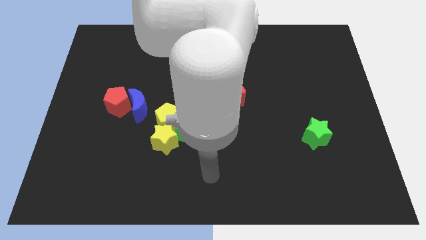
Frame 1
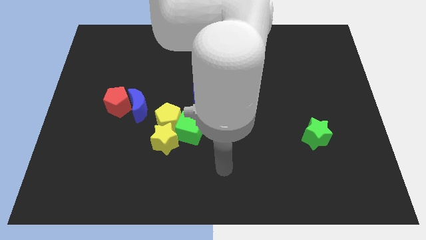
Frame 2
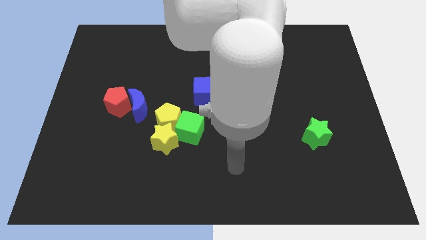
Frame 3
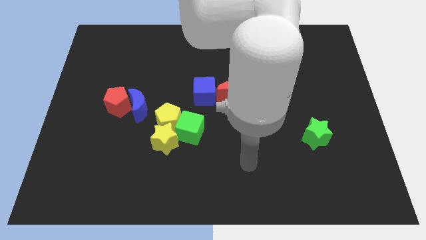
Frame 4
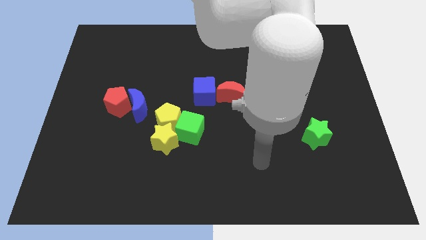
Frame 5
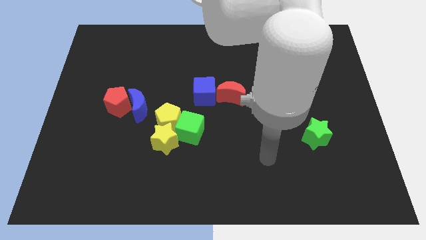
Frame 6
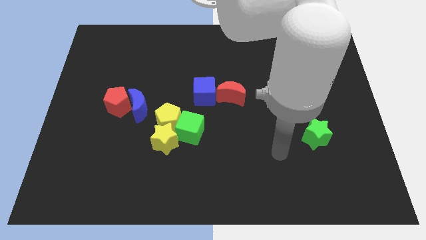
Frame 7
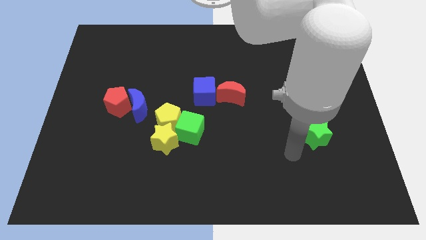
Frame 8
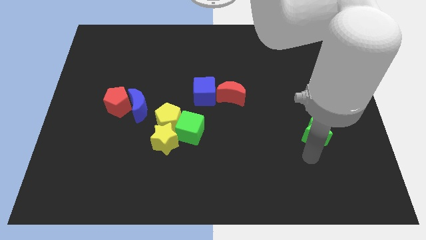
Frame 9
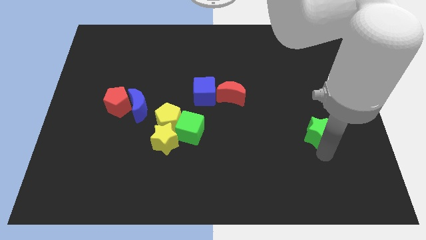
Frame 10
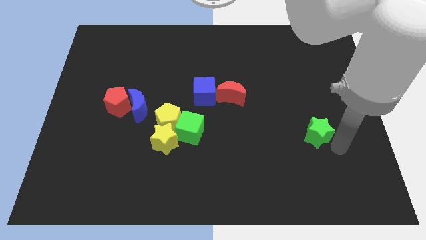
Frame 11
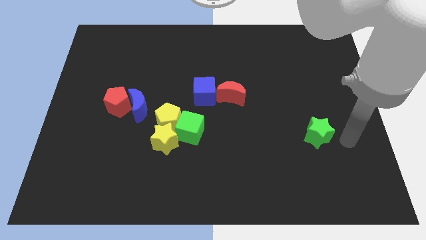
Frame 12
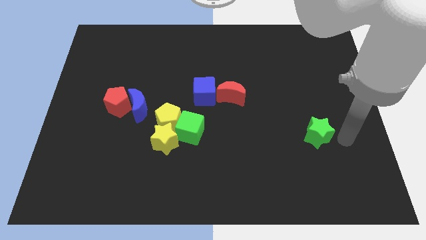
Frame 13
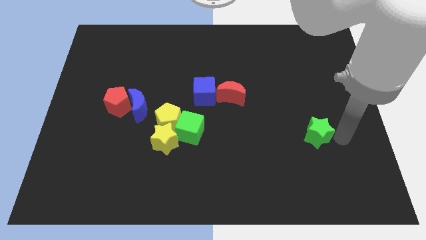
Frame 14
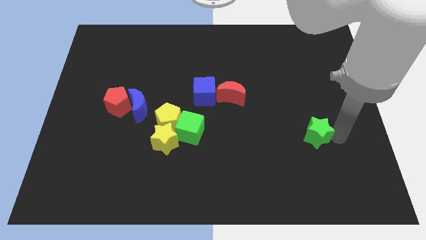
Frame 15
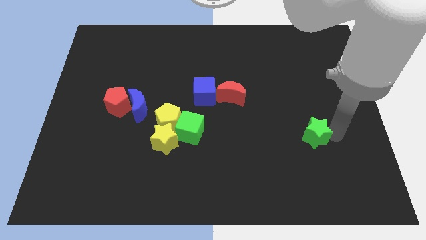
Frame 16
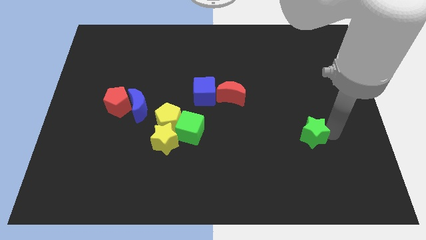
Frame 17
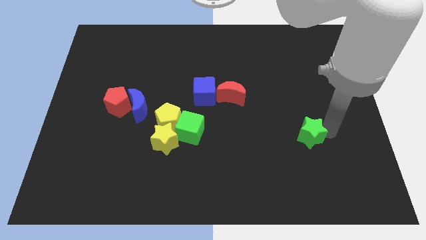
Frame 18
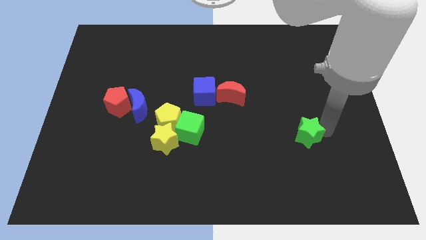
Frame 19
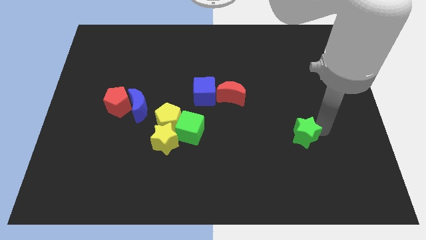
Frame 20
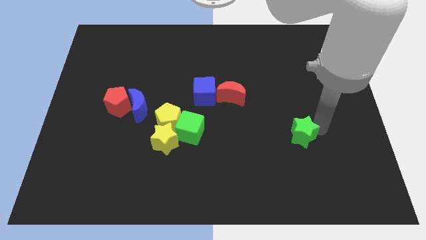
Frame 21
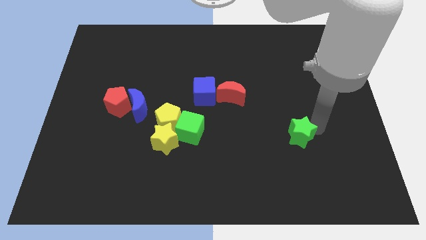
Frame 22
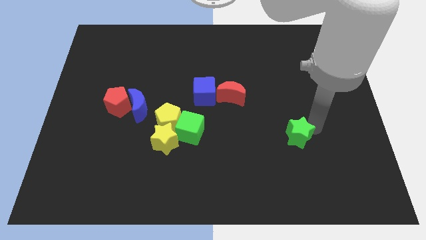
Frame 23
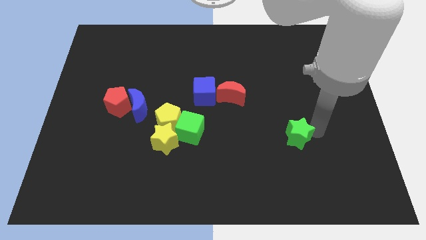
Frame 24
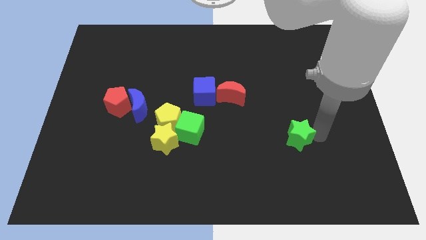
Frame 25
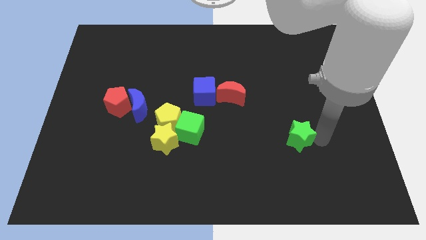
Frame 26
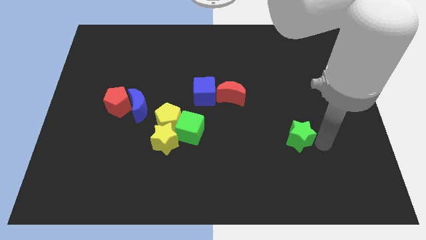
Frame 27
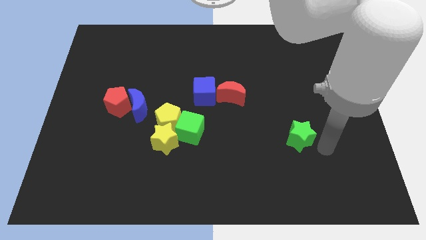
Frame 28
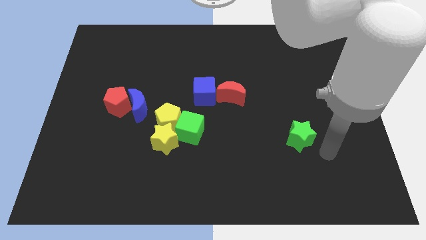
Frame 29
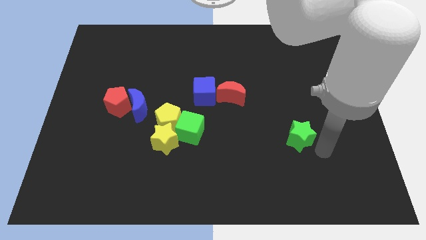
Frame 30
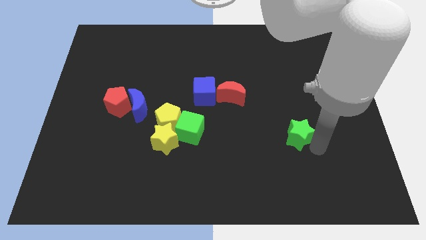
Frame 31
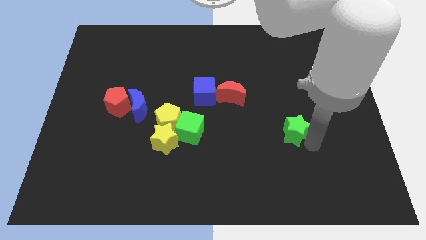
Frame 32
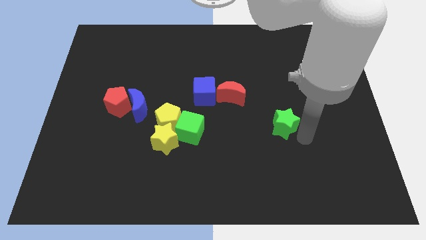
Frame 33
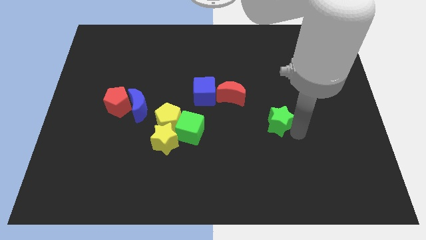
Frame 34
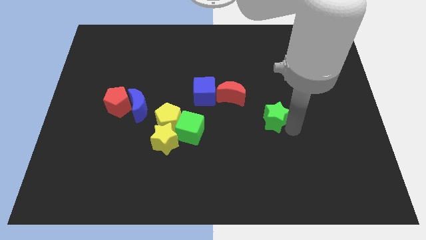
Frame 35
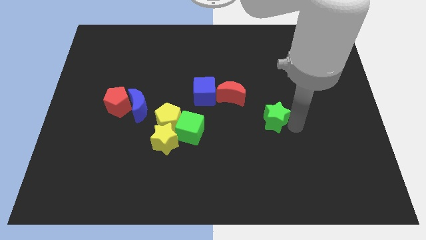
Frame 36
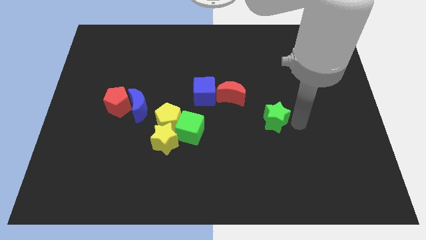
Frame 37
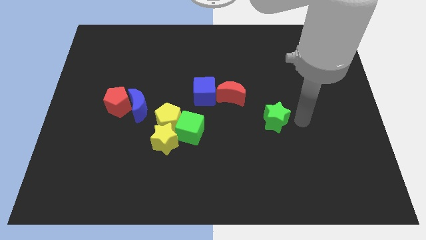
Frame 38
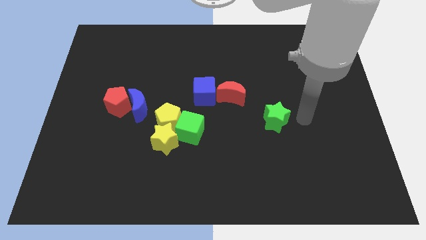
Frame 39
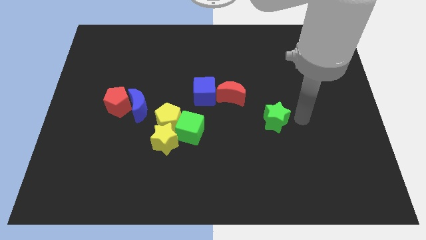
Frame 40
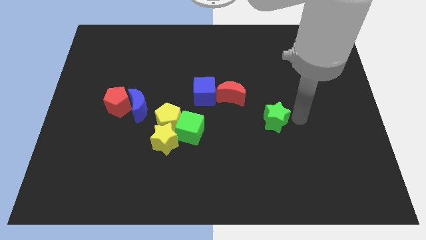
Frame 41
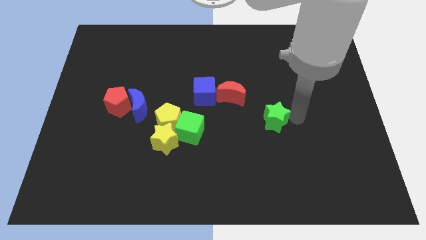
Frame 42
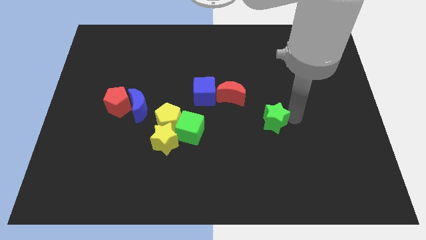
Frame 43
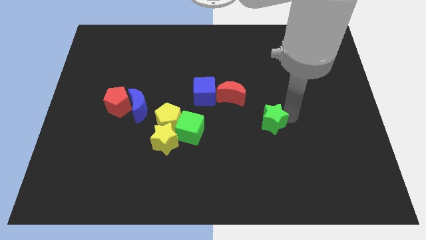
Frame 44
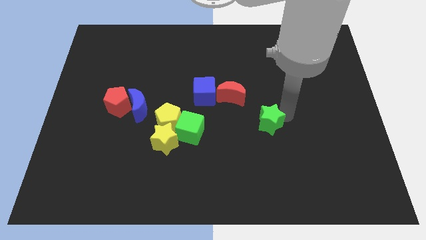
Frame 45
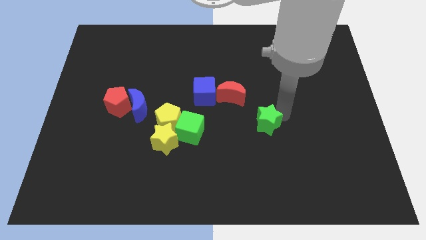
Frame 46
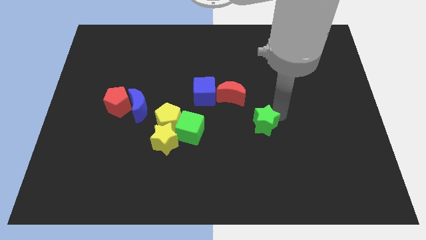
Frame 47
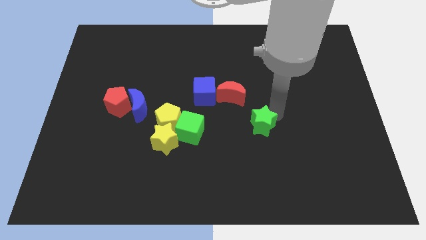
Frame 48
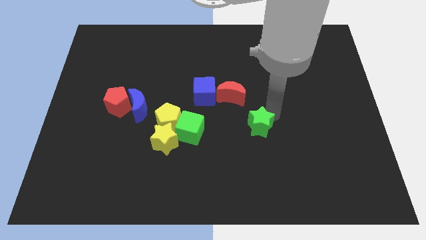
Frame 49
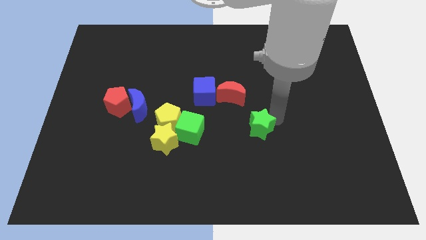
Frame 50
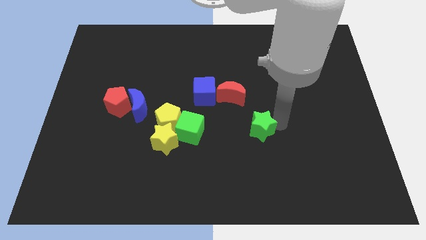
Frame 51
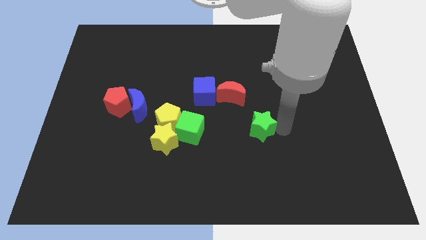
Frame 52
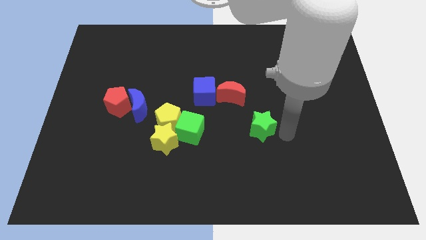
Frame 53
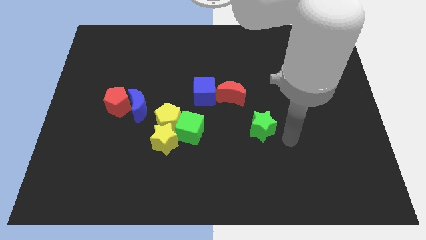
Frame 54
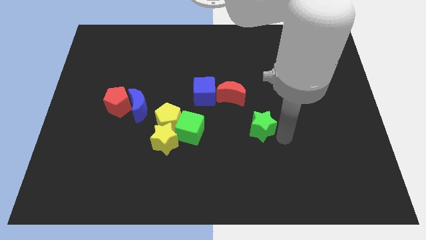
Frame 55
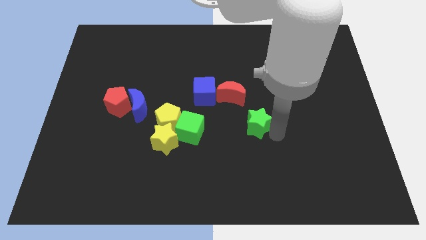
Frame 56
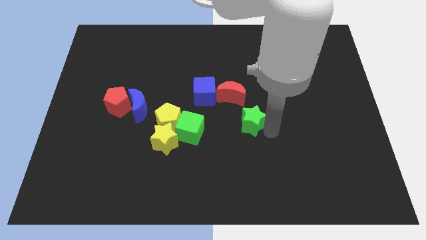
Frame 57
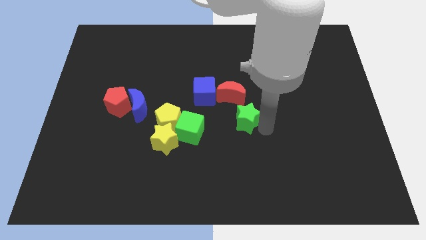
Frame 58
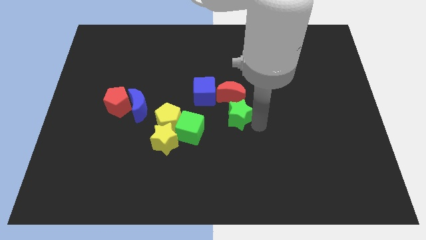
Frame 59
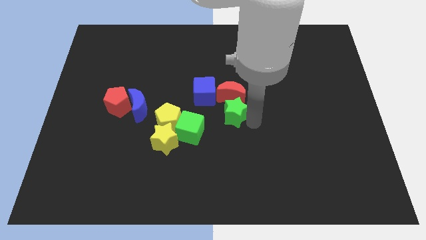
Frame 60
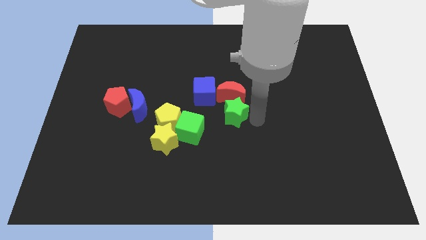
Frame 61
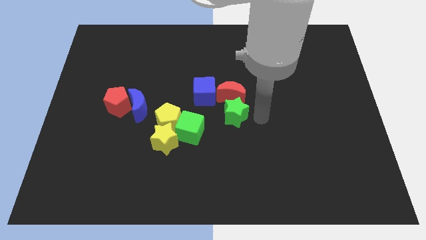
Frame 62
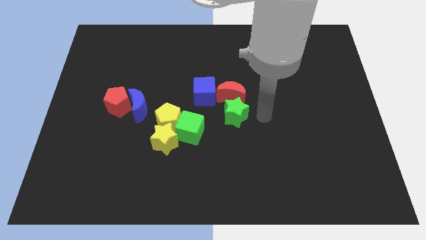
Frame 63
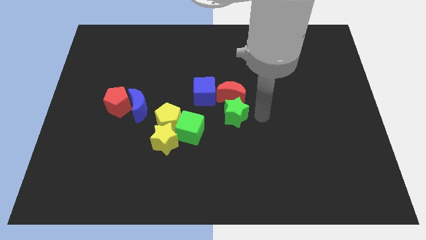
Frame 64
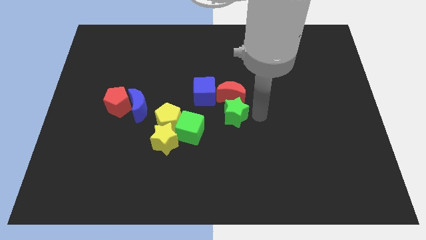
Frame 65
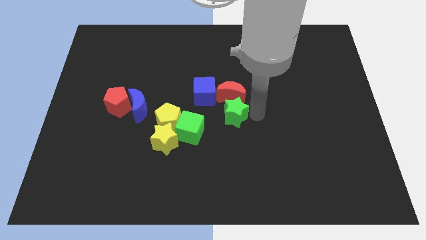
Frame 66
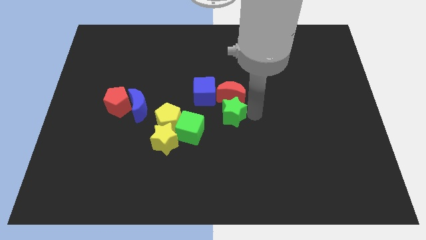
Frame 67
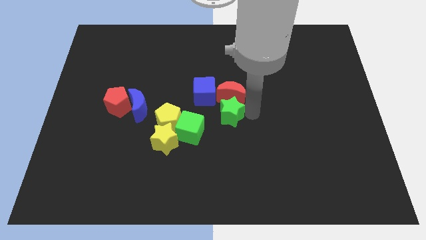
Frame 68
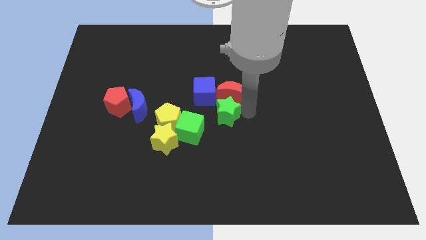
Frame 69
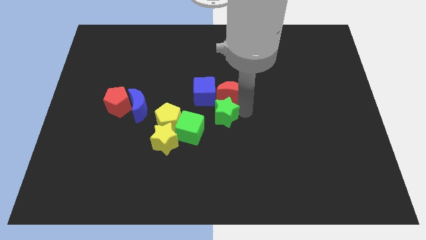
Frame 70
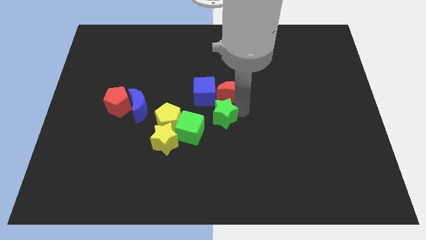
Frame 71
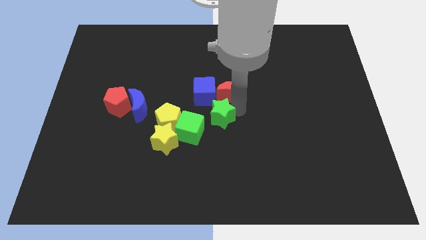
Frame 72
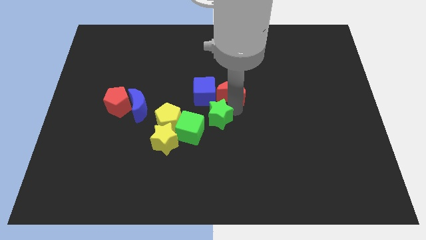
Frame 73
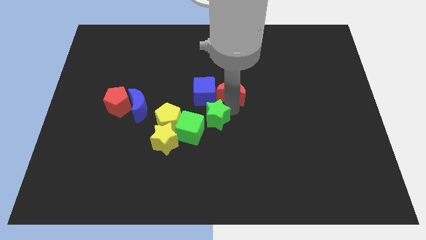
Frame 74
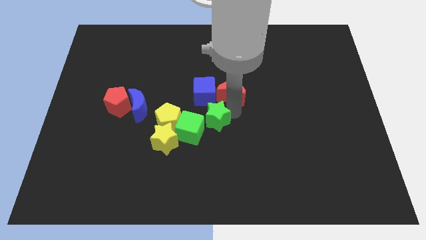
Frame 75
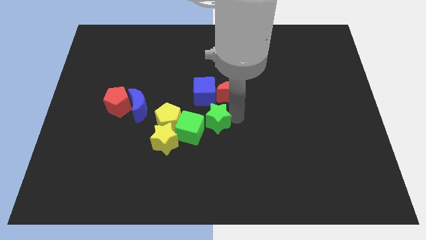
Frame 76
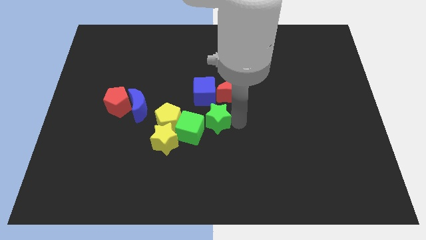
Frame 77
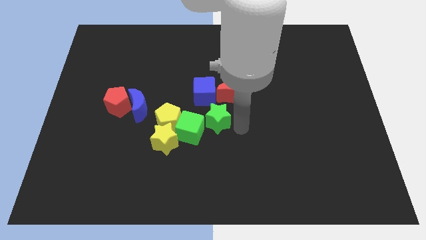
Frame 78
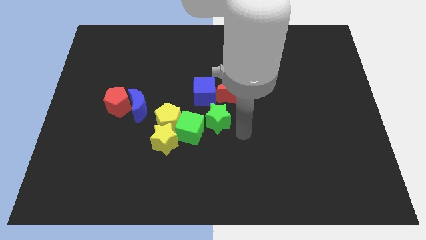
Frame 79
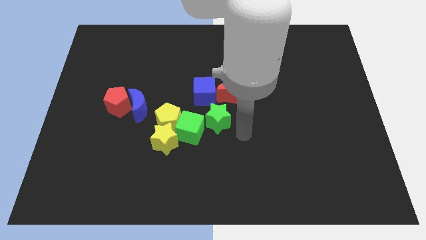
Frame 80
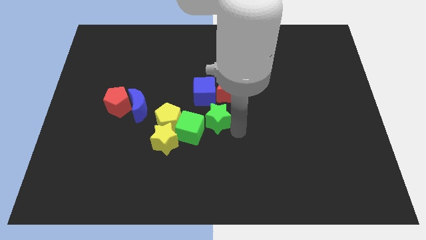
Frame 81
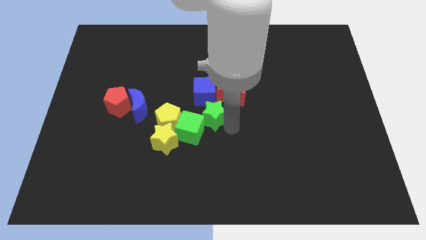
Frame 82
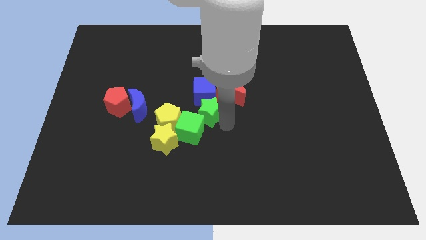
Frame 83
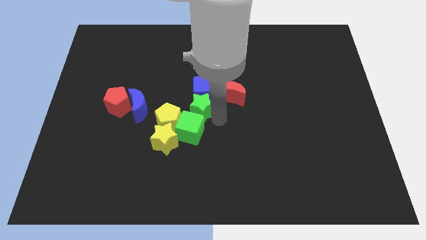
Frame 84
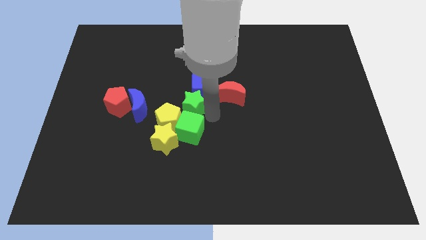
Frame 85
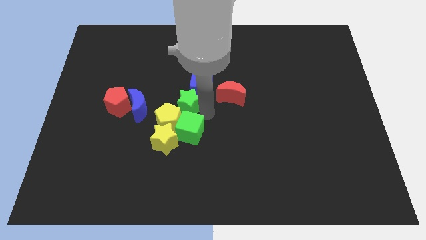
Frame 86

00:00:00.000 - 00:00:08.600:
push the green star above the yellow pentagon
